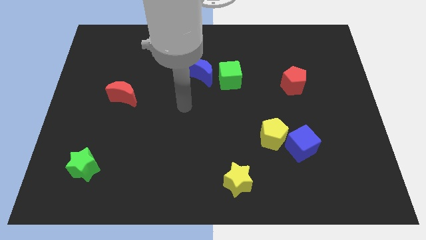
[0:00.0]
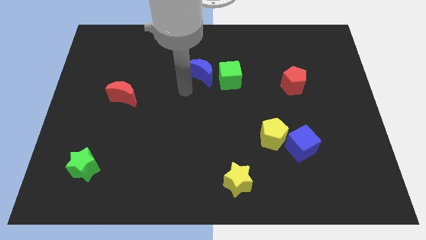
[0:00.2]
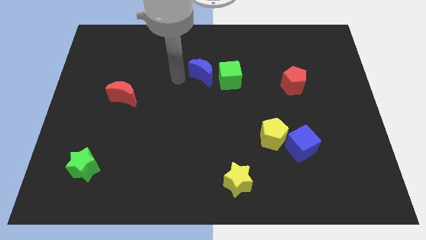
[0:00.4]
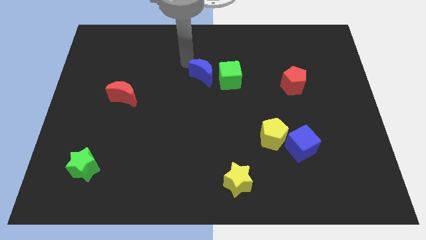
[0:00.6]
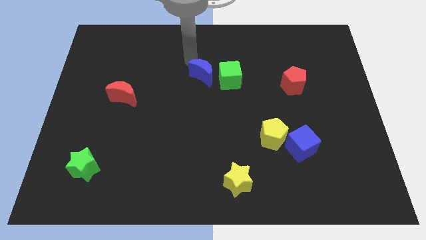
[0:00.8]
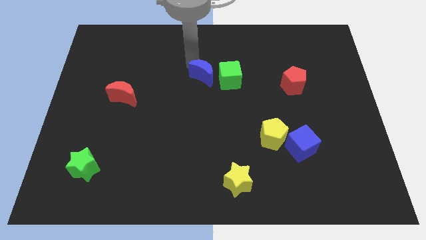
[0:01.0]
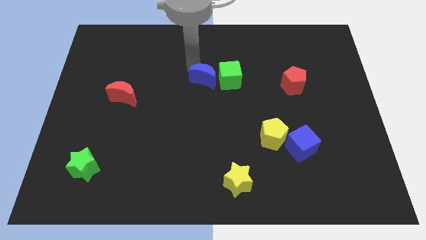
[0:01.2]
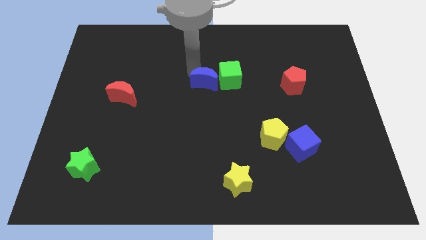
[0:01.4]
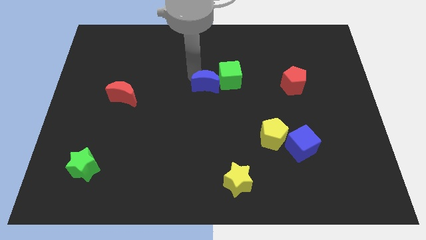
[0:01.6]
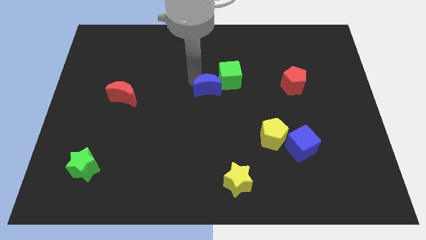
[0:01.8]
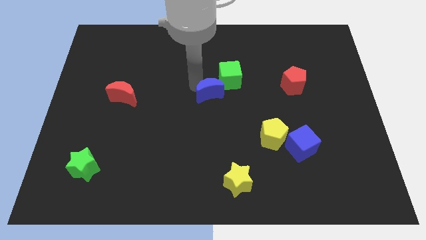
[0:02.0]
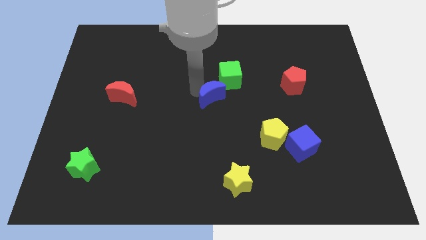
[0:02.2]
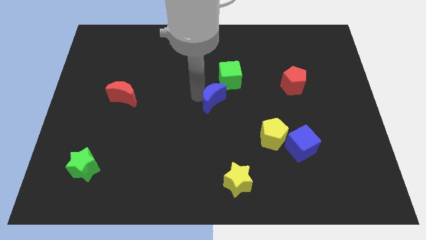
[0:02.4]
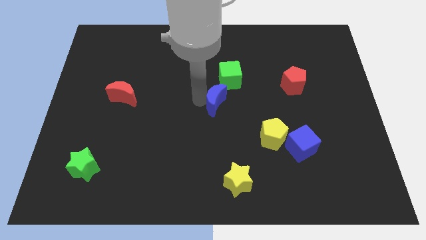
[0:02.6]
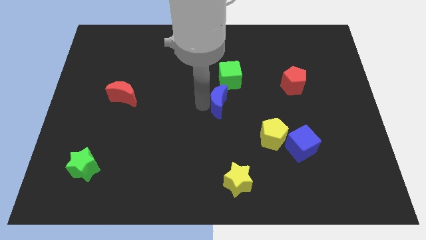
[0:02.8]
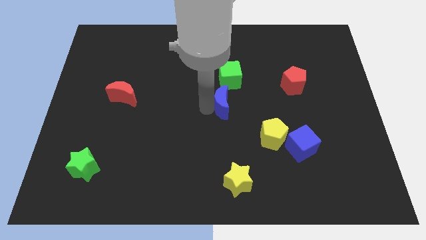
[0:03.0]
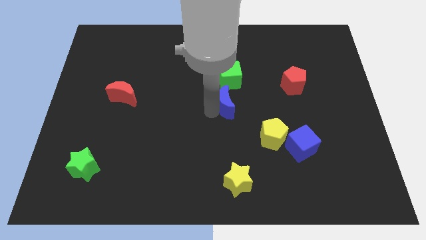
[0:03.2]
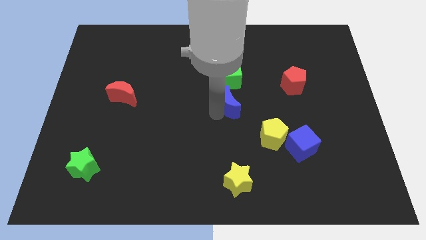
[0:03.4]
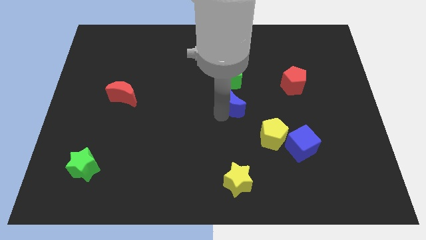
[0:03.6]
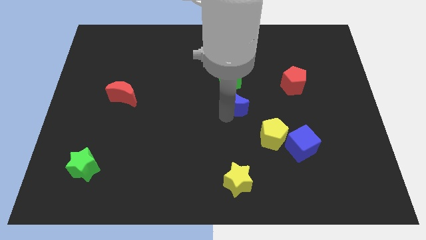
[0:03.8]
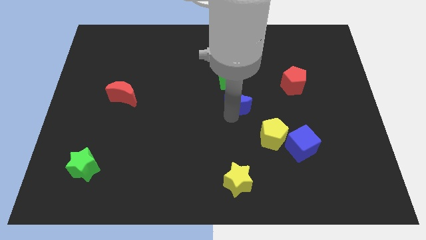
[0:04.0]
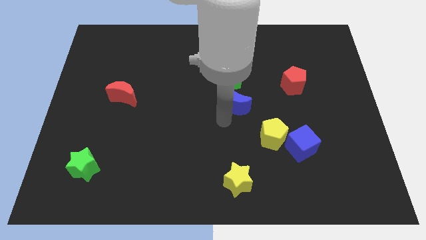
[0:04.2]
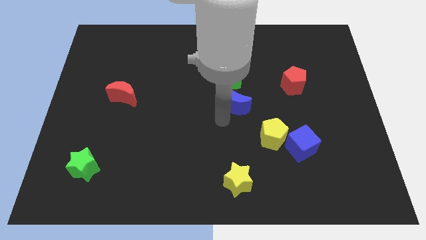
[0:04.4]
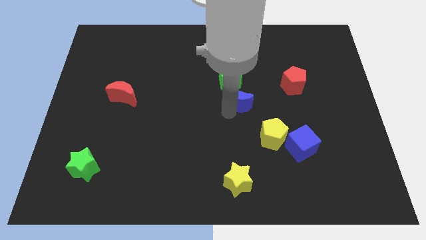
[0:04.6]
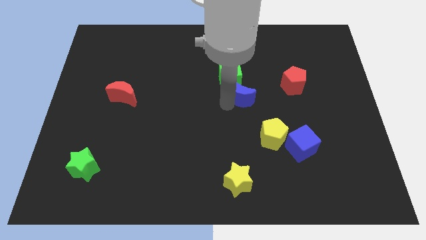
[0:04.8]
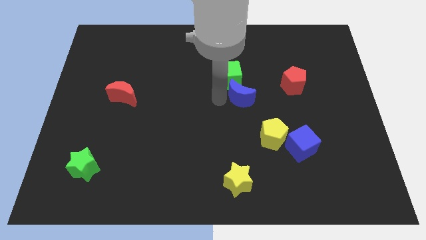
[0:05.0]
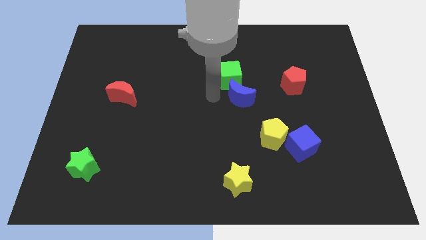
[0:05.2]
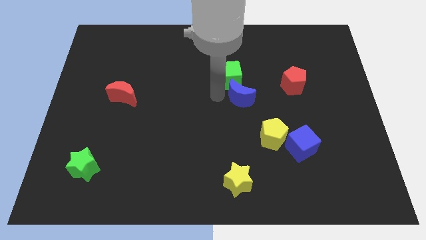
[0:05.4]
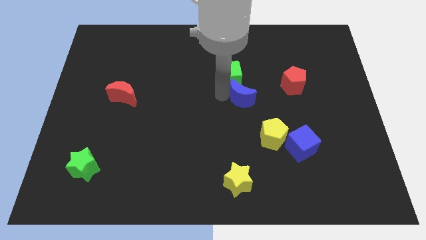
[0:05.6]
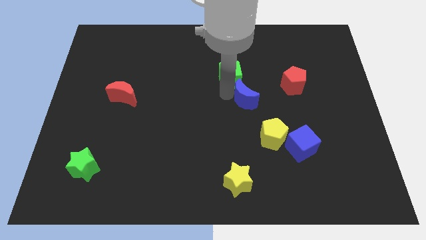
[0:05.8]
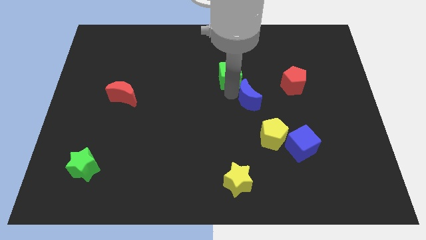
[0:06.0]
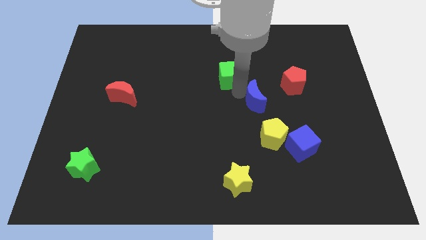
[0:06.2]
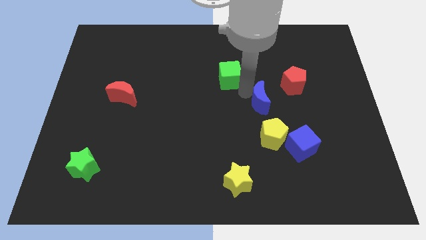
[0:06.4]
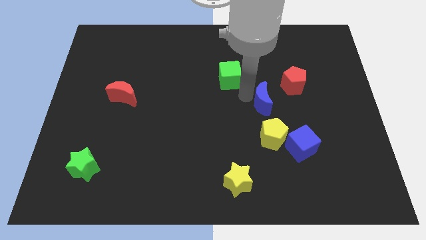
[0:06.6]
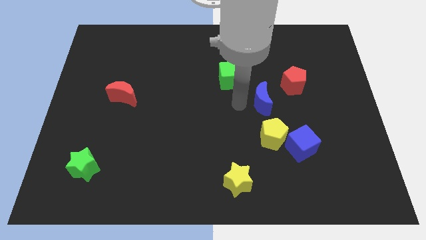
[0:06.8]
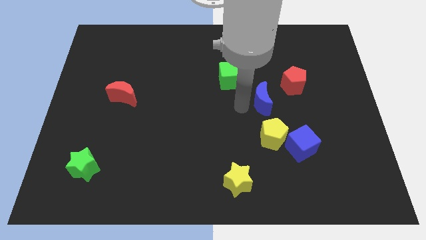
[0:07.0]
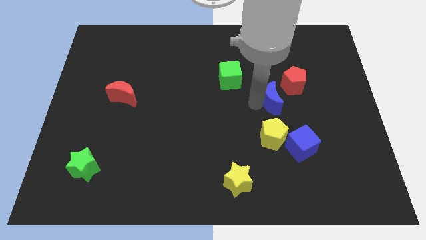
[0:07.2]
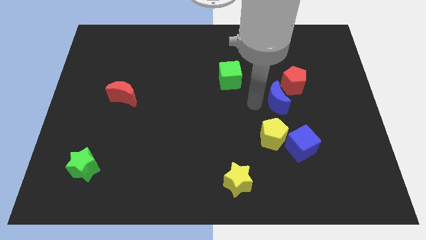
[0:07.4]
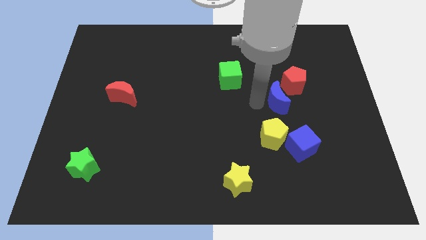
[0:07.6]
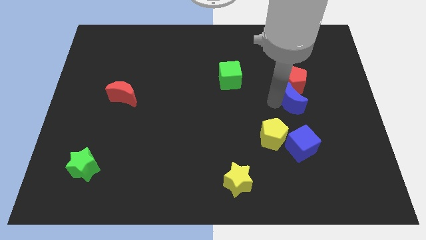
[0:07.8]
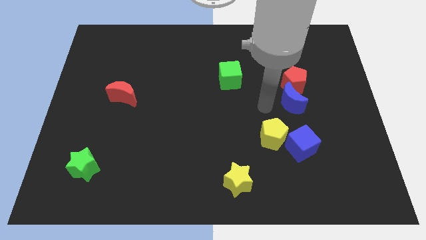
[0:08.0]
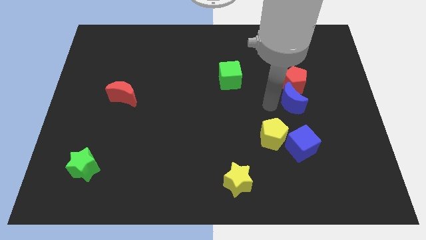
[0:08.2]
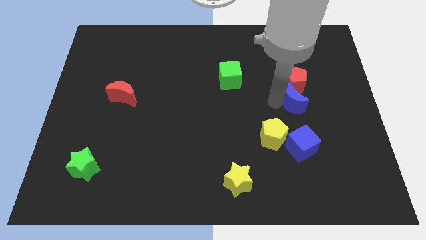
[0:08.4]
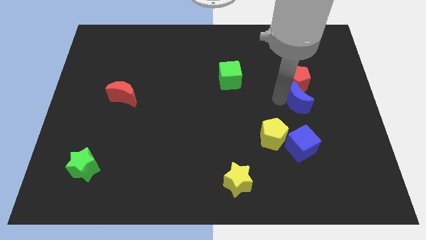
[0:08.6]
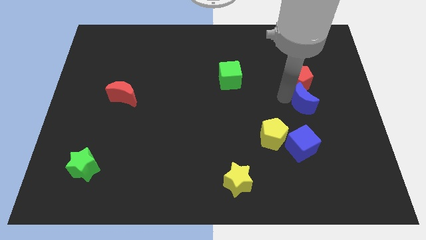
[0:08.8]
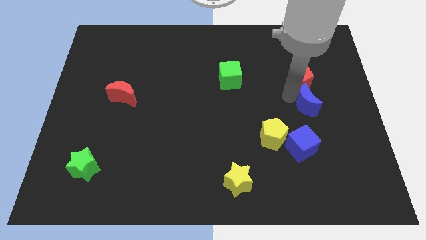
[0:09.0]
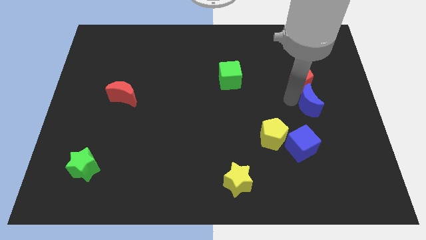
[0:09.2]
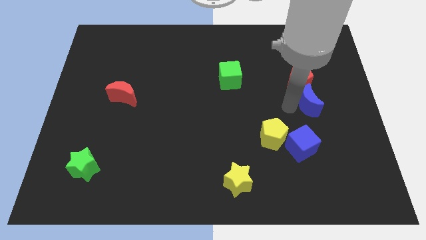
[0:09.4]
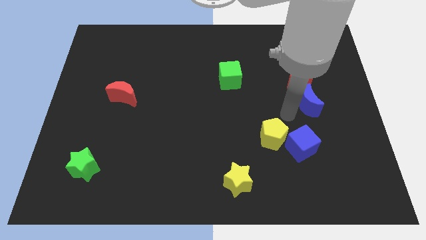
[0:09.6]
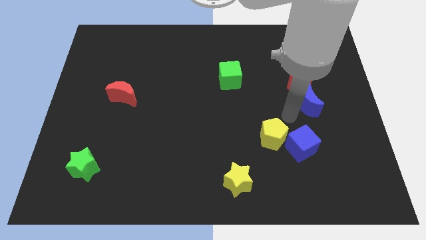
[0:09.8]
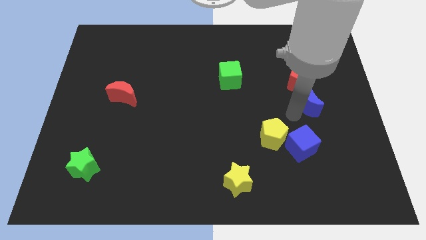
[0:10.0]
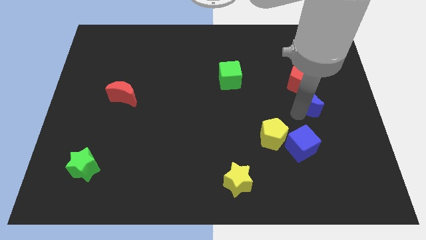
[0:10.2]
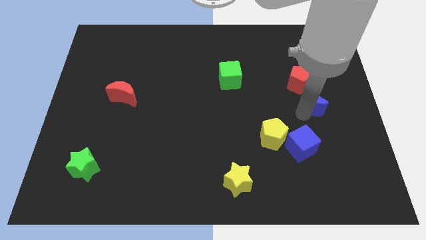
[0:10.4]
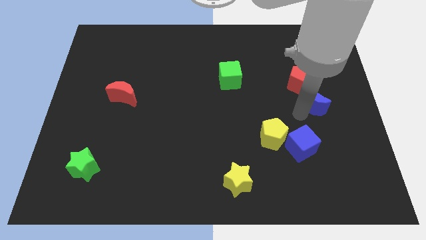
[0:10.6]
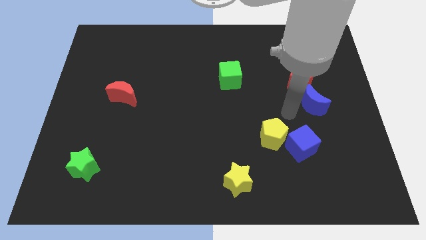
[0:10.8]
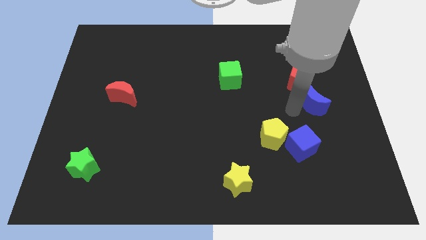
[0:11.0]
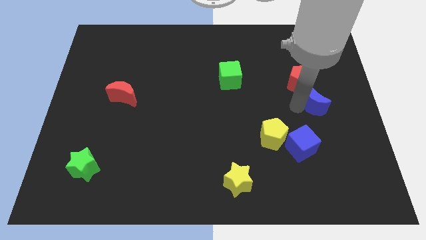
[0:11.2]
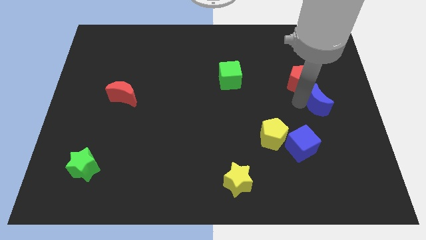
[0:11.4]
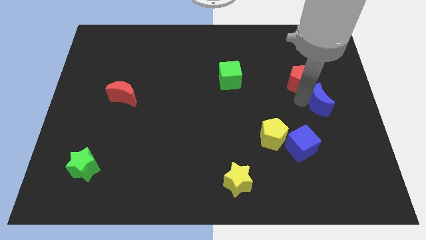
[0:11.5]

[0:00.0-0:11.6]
put the blue moon to the right side of the board

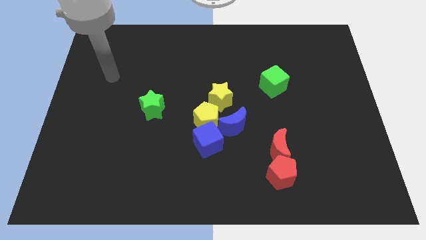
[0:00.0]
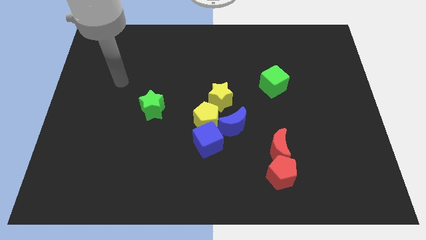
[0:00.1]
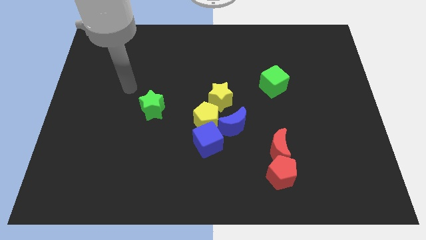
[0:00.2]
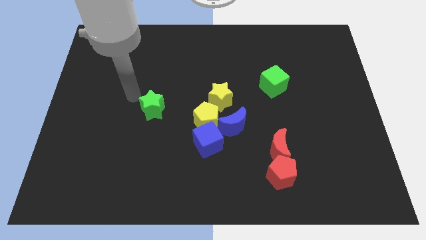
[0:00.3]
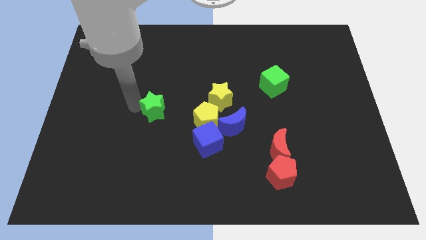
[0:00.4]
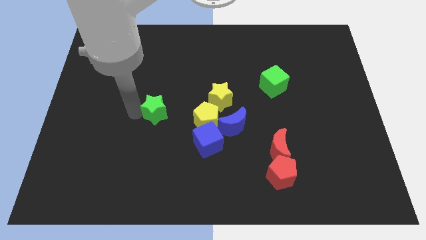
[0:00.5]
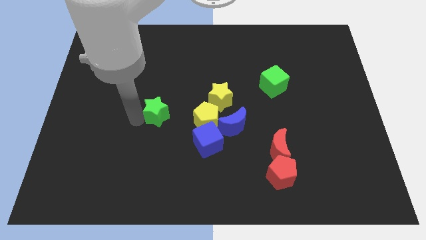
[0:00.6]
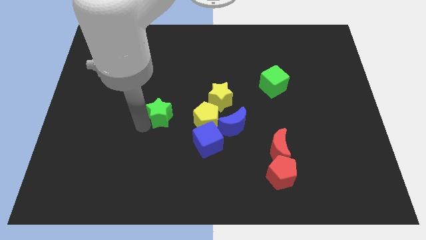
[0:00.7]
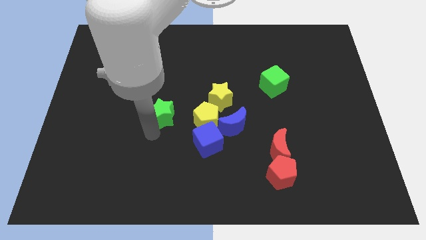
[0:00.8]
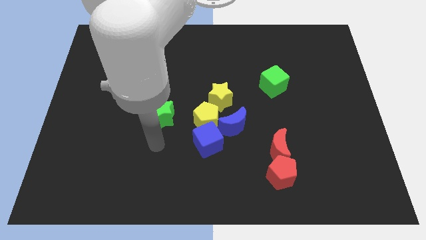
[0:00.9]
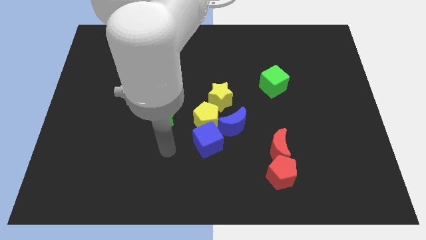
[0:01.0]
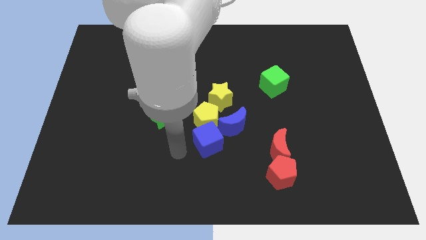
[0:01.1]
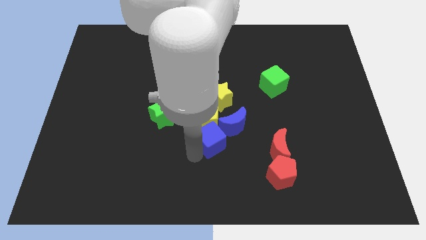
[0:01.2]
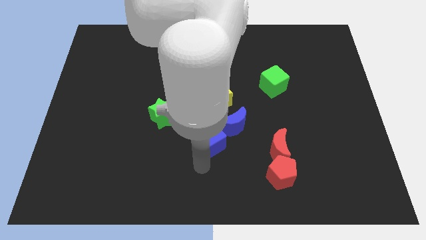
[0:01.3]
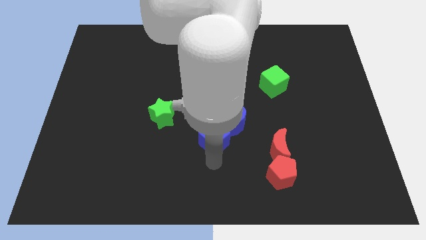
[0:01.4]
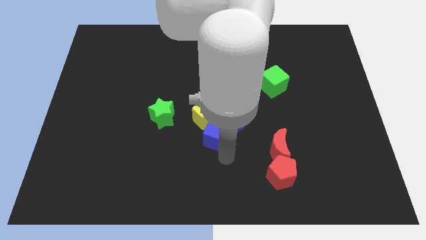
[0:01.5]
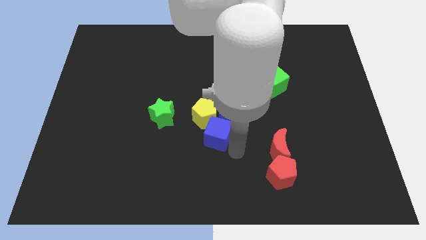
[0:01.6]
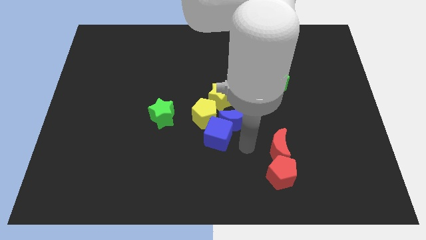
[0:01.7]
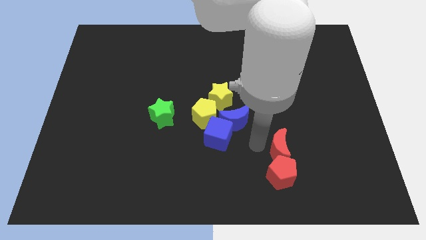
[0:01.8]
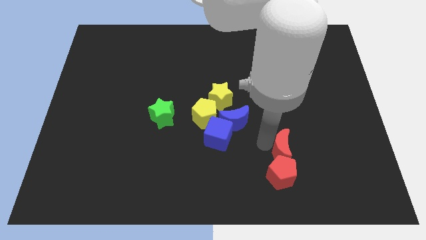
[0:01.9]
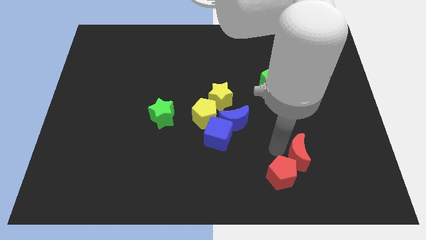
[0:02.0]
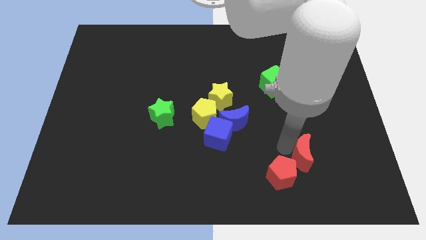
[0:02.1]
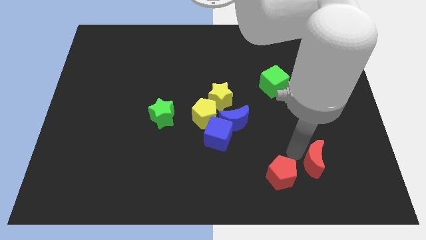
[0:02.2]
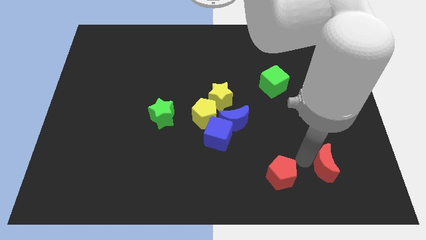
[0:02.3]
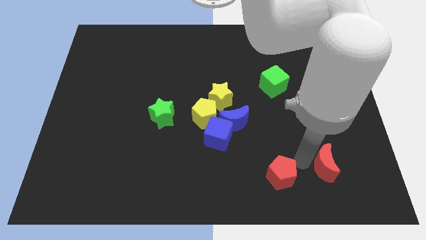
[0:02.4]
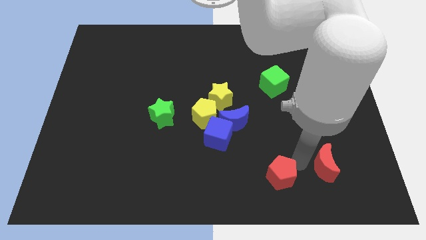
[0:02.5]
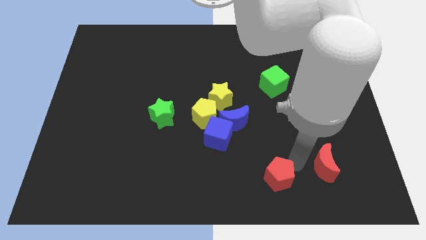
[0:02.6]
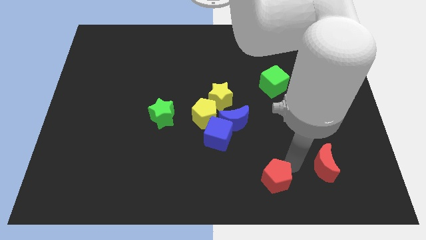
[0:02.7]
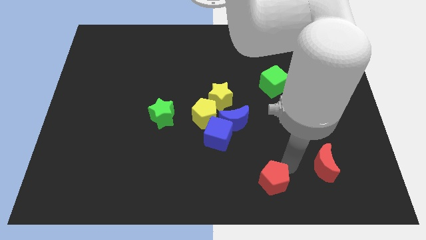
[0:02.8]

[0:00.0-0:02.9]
put the red pentagon to the bottom
